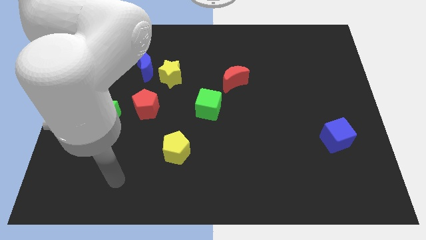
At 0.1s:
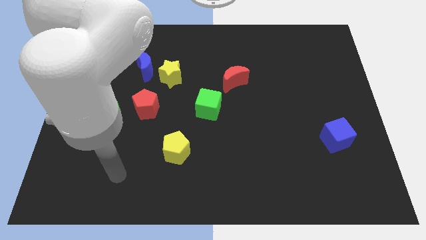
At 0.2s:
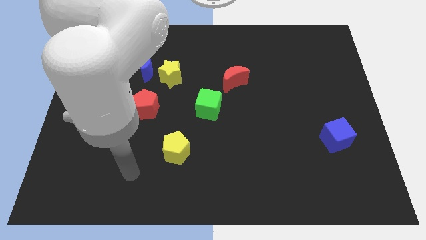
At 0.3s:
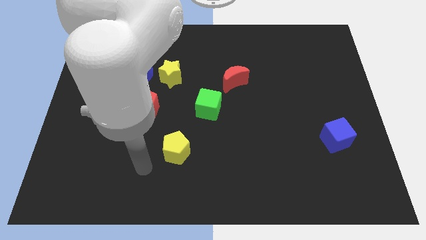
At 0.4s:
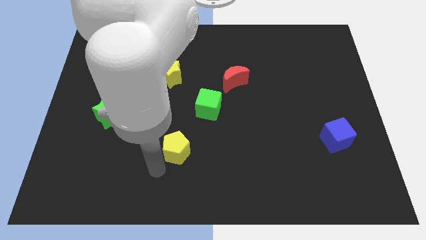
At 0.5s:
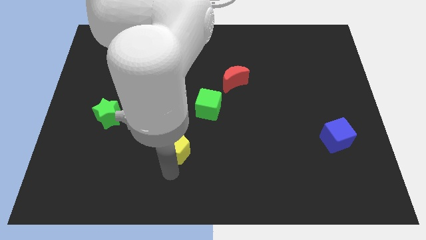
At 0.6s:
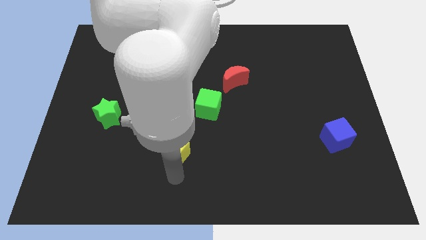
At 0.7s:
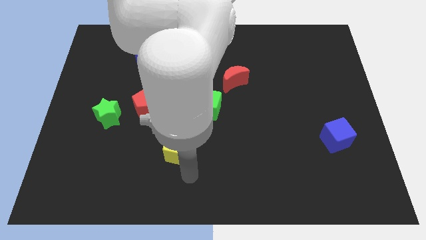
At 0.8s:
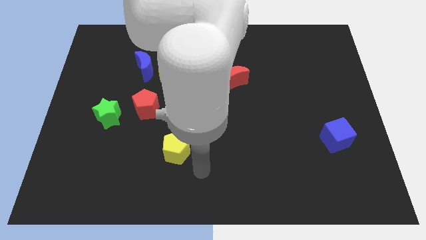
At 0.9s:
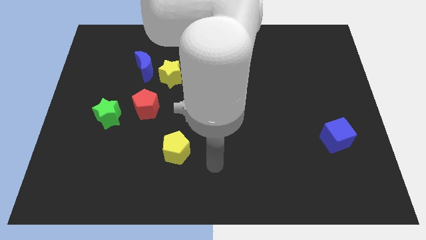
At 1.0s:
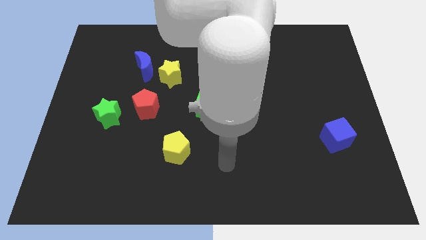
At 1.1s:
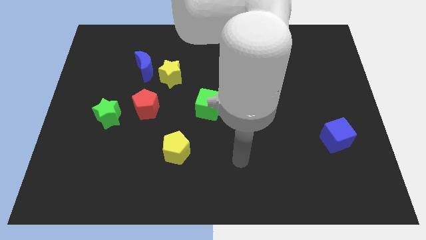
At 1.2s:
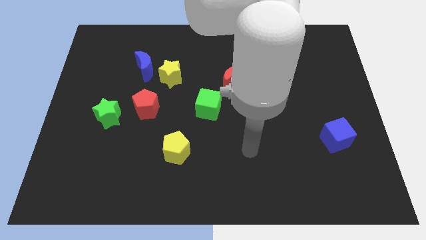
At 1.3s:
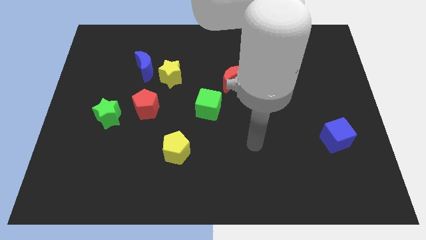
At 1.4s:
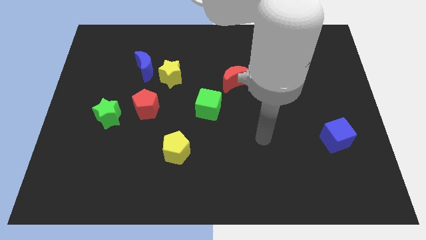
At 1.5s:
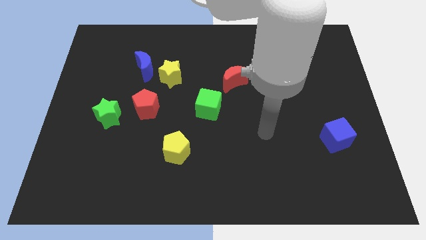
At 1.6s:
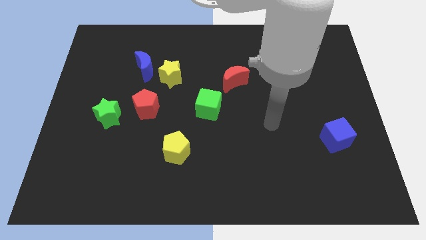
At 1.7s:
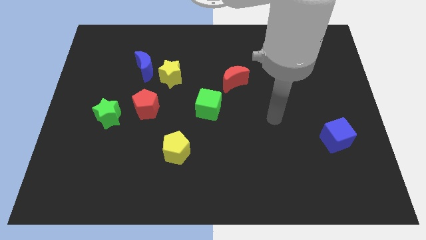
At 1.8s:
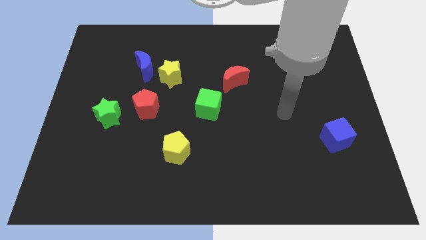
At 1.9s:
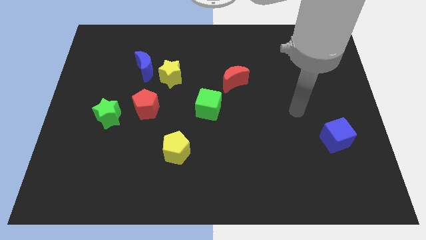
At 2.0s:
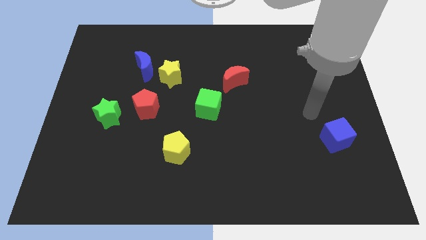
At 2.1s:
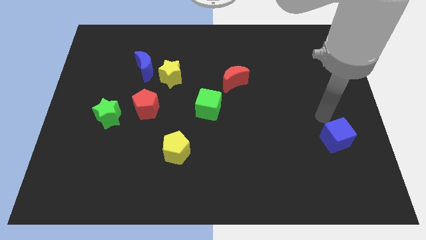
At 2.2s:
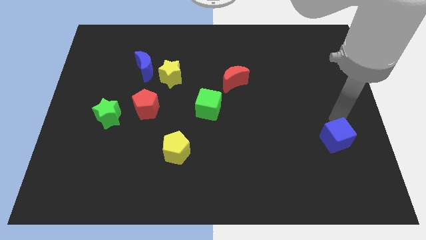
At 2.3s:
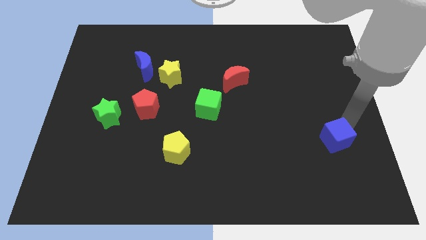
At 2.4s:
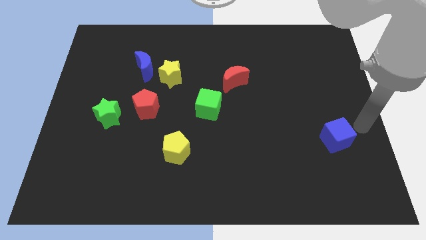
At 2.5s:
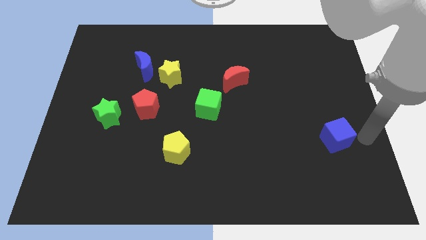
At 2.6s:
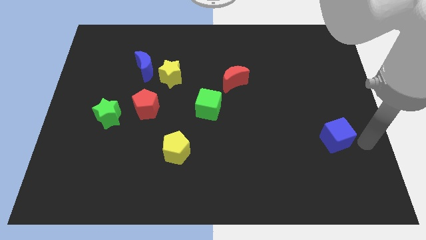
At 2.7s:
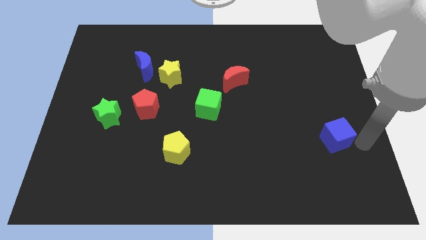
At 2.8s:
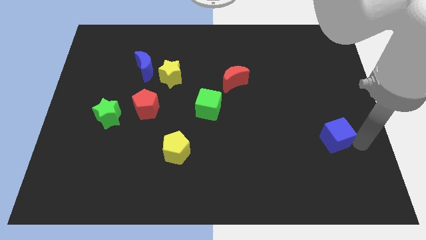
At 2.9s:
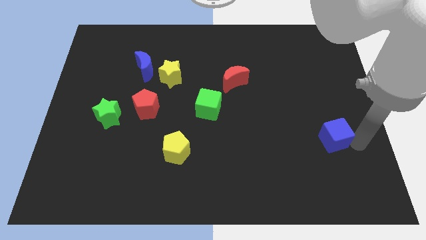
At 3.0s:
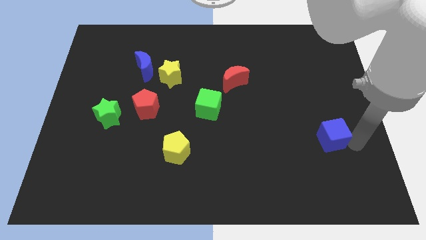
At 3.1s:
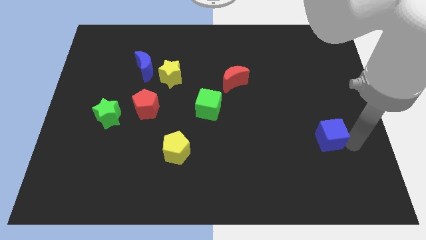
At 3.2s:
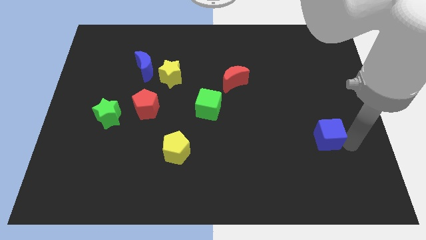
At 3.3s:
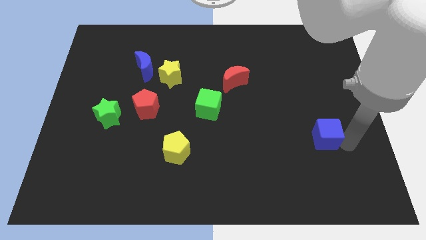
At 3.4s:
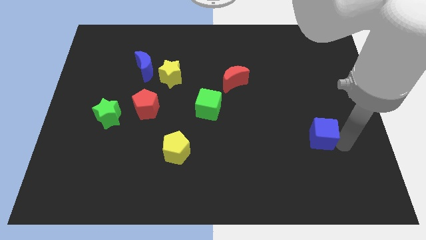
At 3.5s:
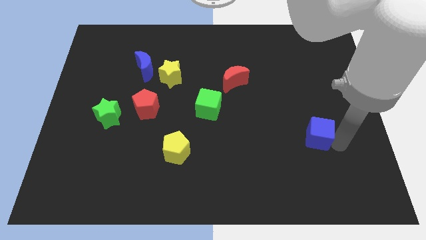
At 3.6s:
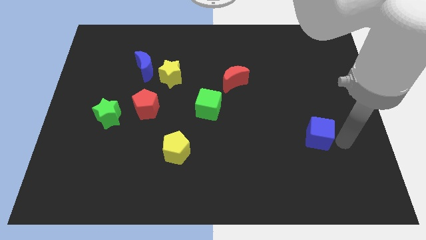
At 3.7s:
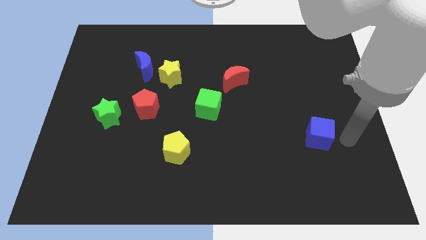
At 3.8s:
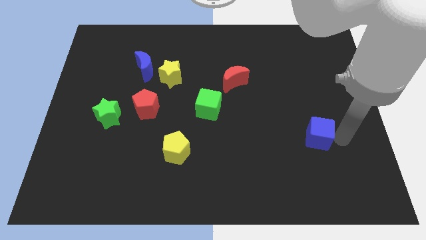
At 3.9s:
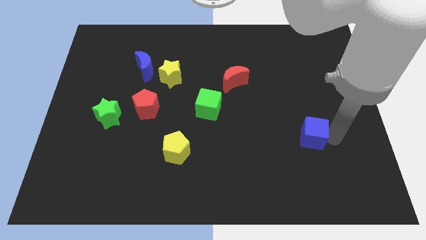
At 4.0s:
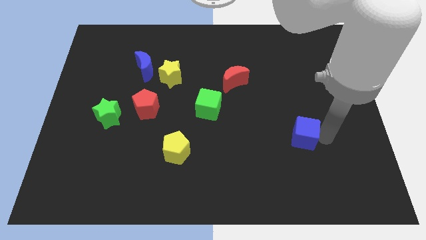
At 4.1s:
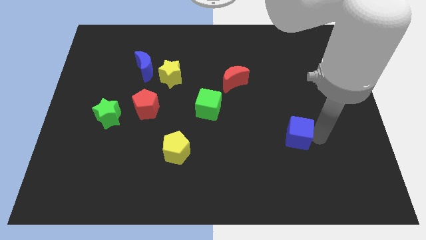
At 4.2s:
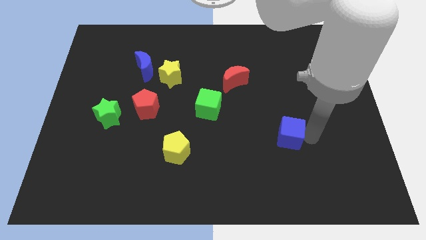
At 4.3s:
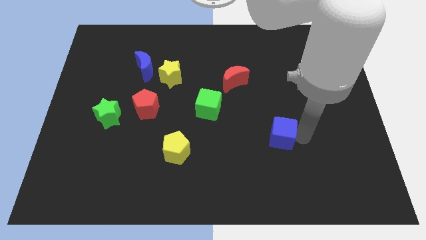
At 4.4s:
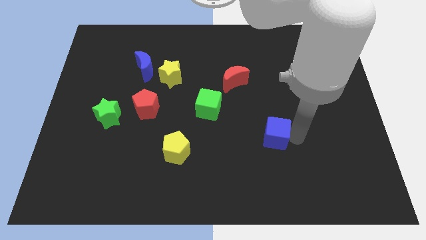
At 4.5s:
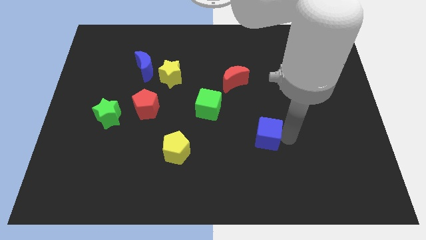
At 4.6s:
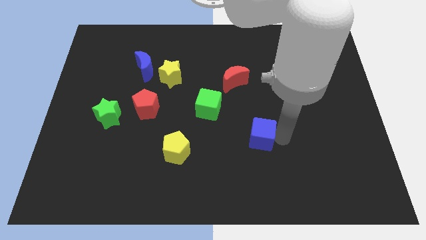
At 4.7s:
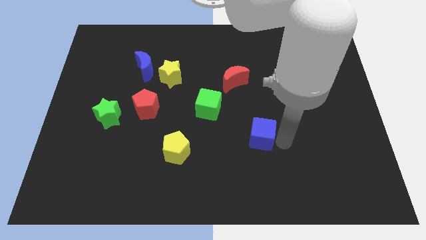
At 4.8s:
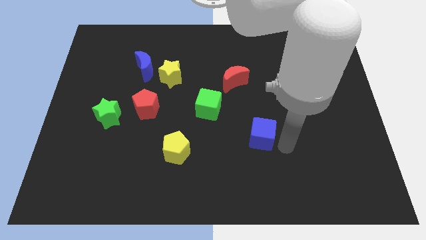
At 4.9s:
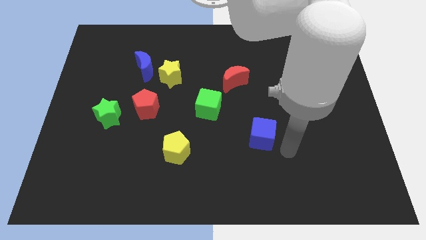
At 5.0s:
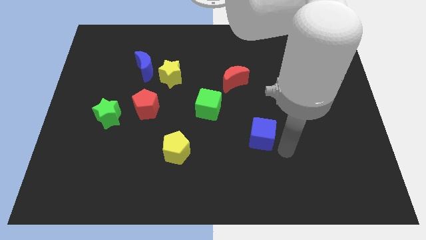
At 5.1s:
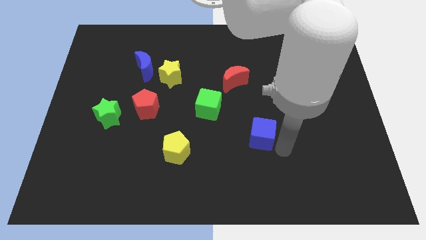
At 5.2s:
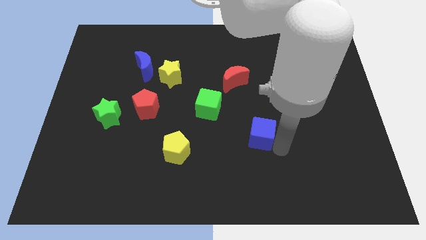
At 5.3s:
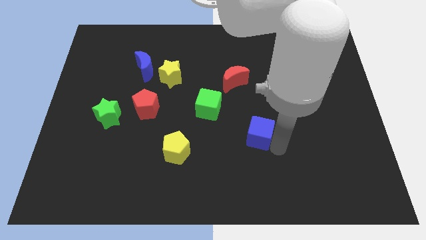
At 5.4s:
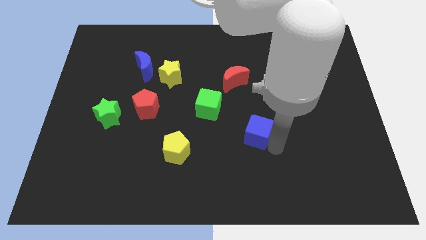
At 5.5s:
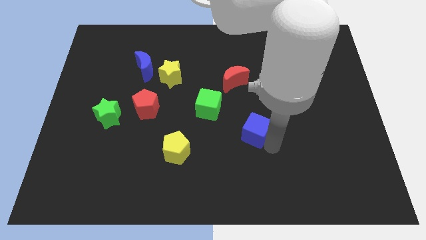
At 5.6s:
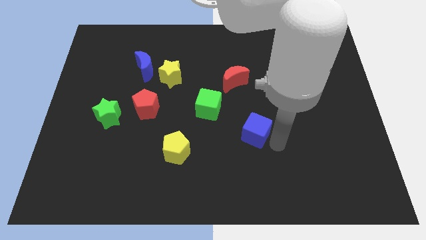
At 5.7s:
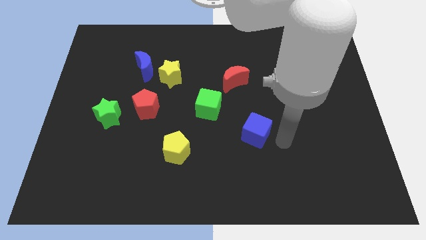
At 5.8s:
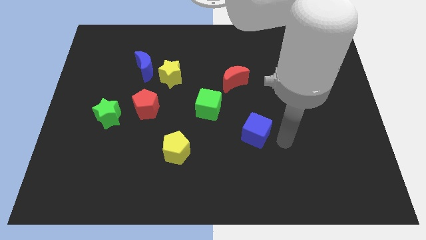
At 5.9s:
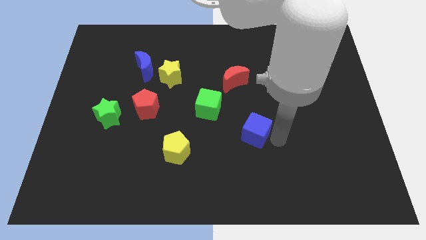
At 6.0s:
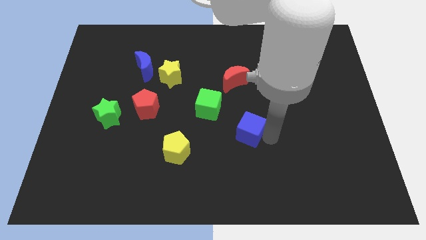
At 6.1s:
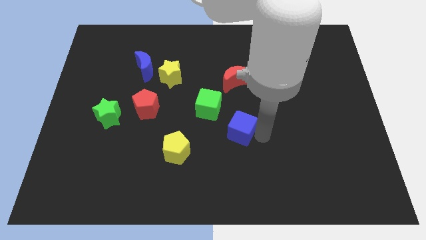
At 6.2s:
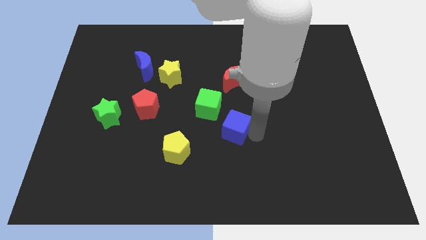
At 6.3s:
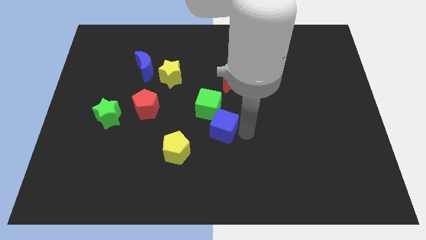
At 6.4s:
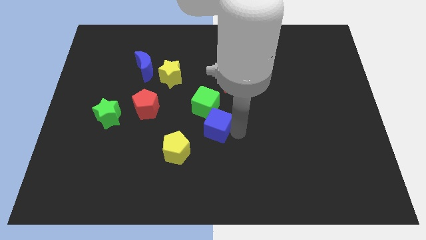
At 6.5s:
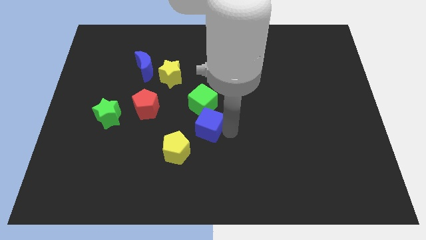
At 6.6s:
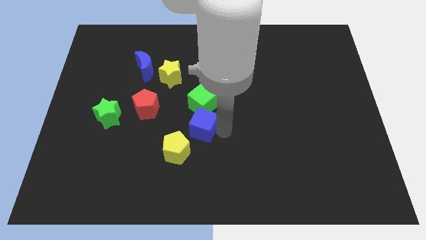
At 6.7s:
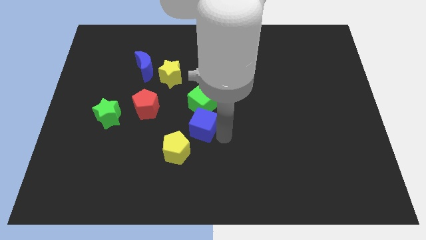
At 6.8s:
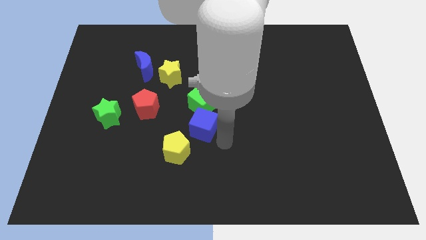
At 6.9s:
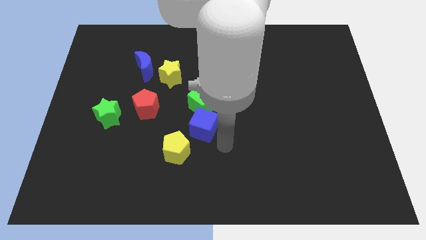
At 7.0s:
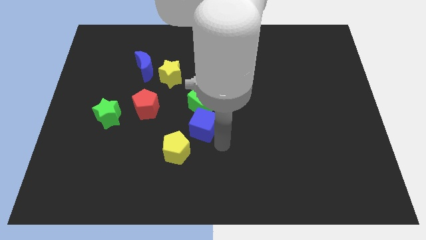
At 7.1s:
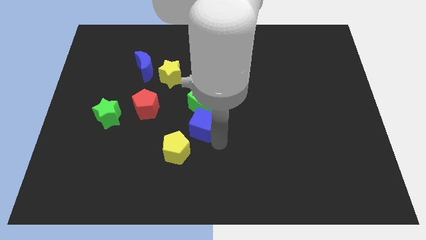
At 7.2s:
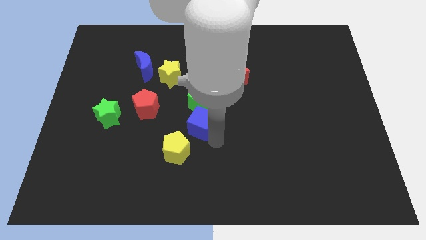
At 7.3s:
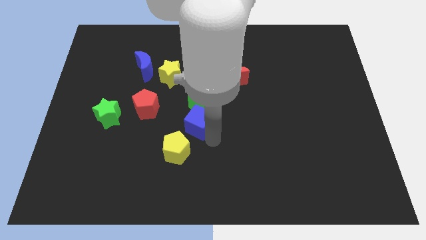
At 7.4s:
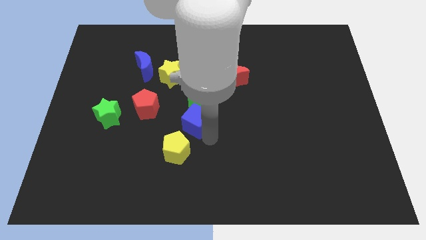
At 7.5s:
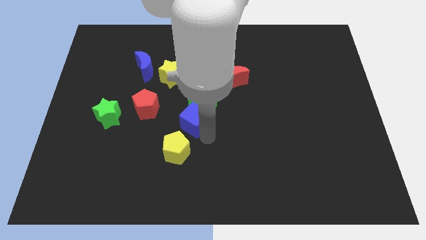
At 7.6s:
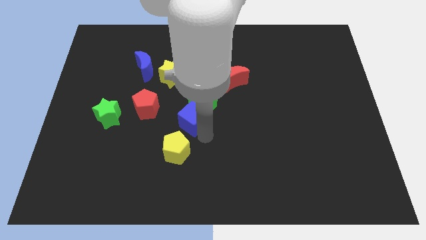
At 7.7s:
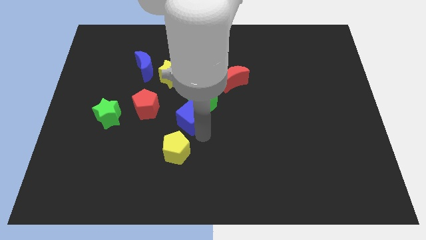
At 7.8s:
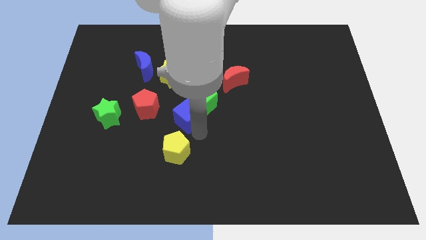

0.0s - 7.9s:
slide the blue cube to the left of the green cube
